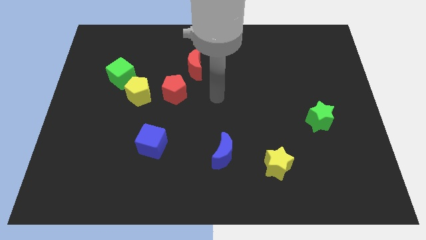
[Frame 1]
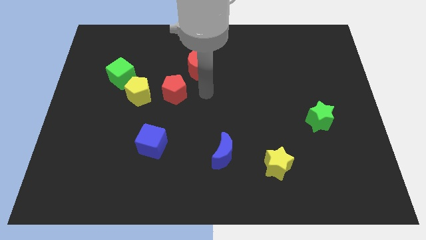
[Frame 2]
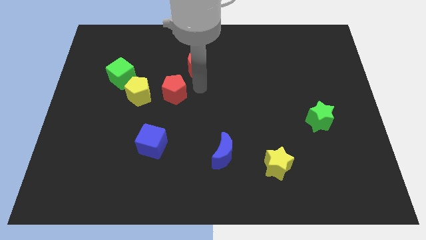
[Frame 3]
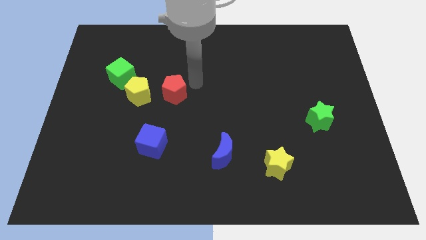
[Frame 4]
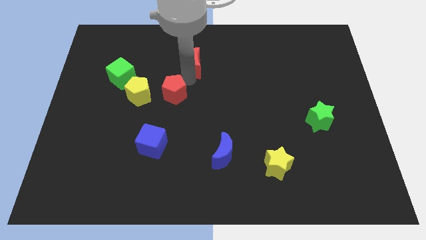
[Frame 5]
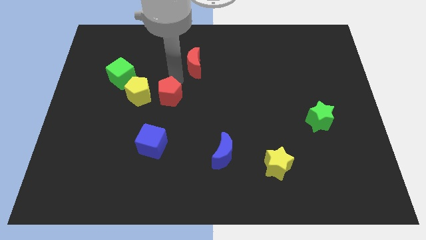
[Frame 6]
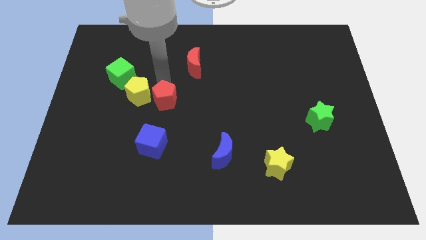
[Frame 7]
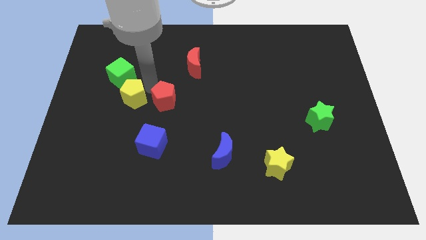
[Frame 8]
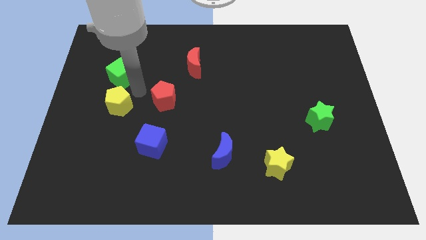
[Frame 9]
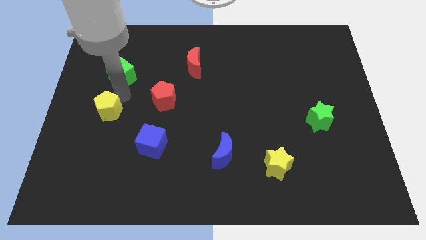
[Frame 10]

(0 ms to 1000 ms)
pull the green cube apart from the yellow pentagon

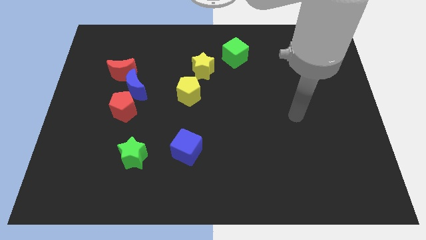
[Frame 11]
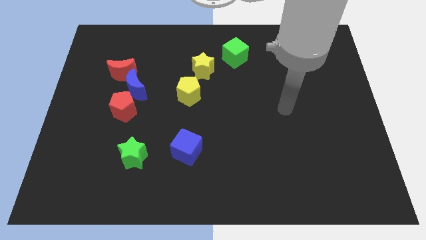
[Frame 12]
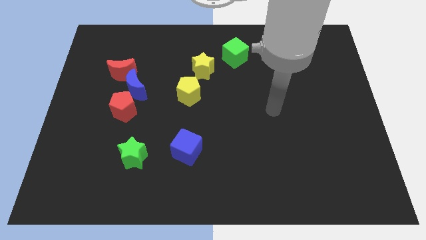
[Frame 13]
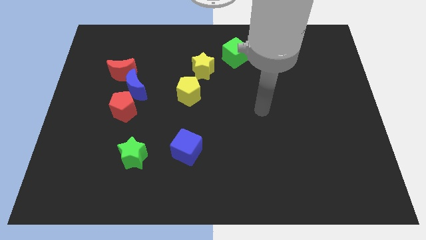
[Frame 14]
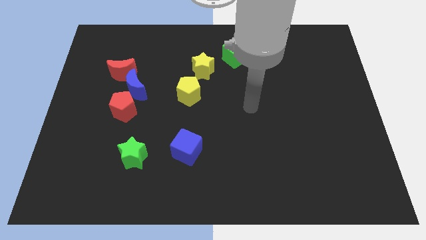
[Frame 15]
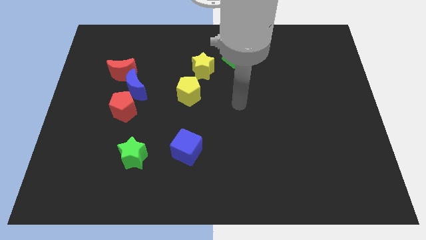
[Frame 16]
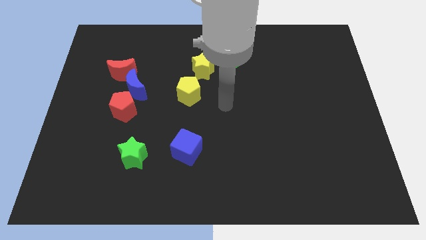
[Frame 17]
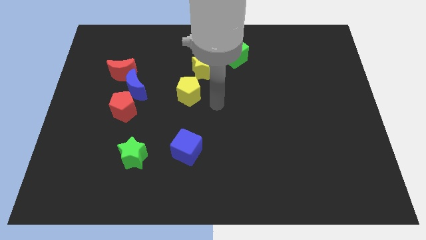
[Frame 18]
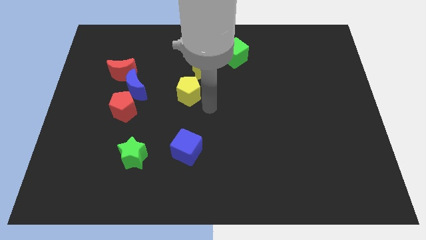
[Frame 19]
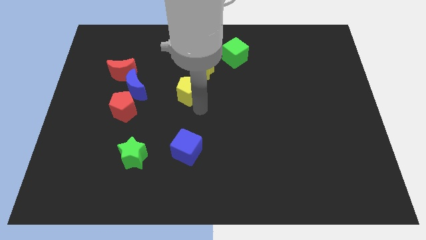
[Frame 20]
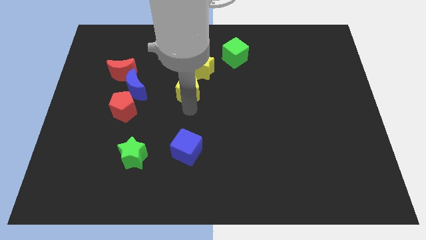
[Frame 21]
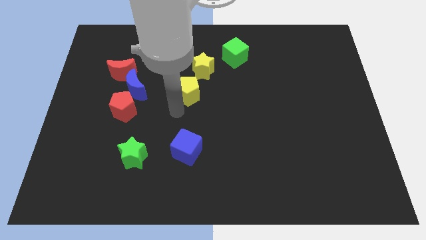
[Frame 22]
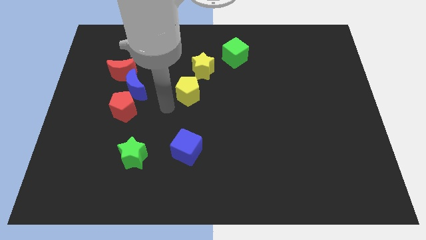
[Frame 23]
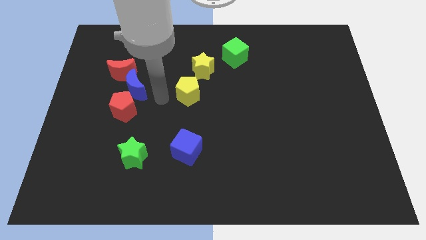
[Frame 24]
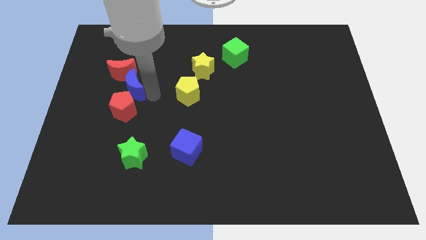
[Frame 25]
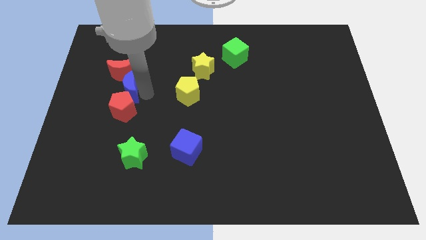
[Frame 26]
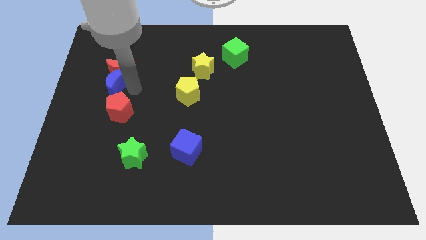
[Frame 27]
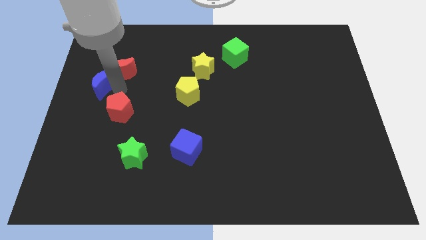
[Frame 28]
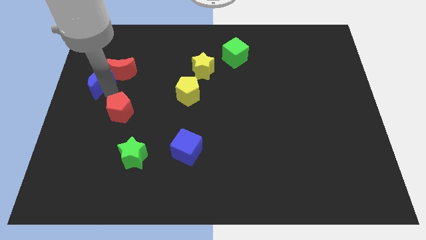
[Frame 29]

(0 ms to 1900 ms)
pull the red pentagon apart from the blue moon

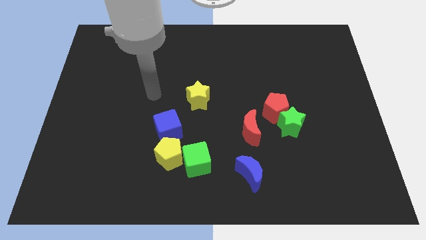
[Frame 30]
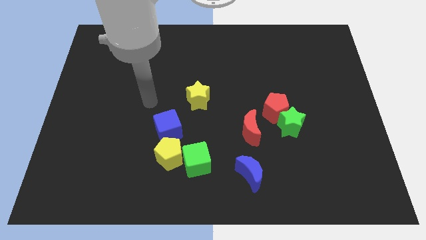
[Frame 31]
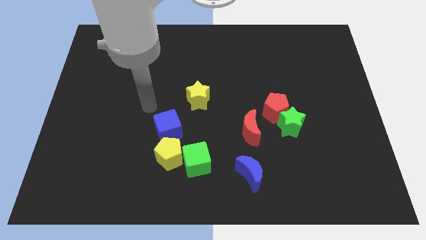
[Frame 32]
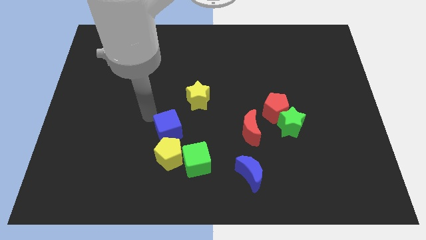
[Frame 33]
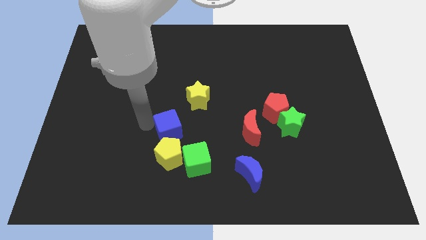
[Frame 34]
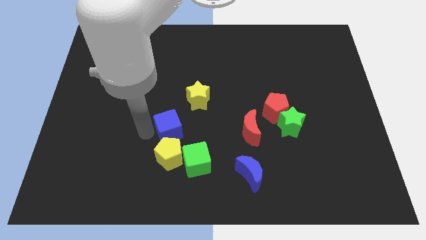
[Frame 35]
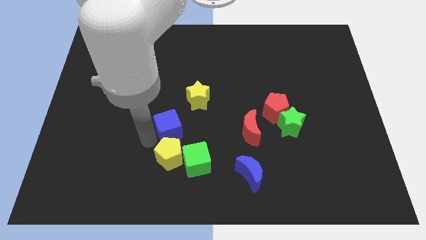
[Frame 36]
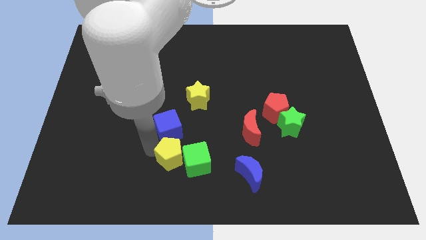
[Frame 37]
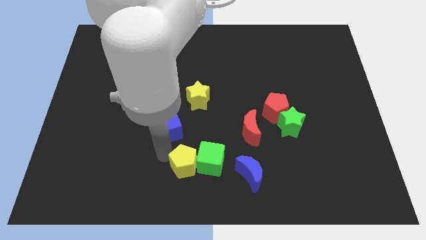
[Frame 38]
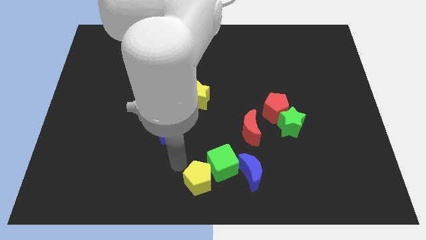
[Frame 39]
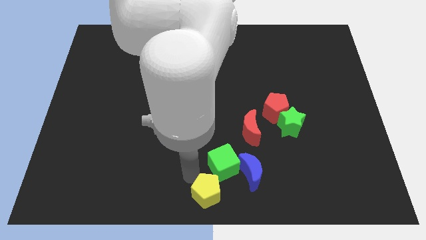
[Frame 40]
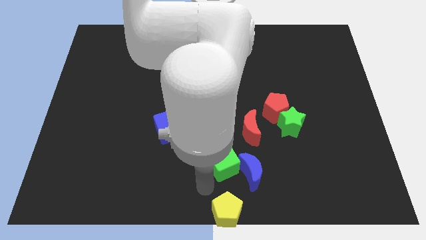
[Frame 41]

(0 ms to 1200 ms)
separate the green cube from the yellow pentagon

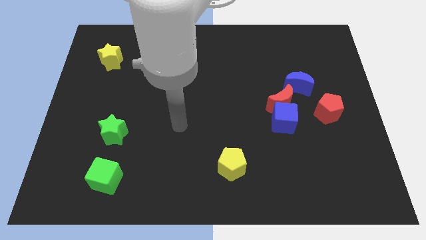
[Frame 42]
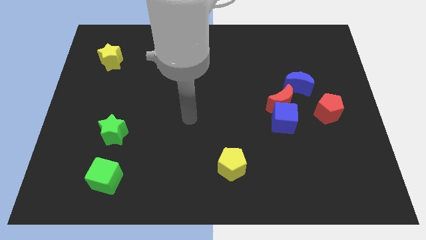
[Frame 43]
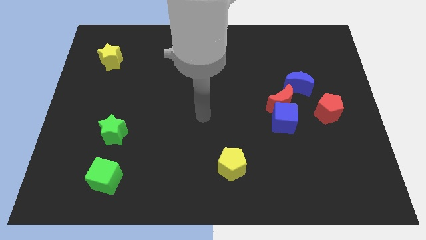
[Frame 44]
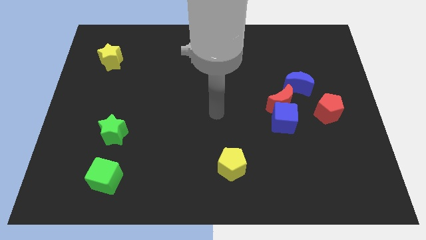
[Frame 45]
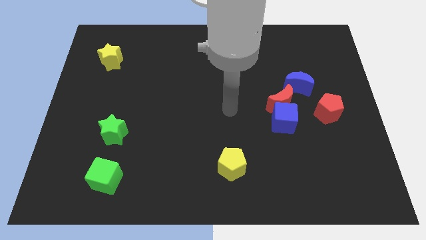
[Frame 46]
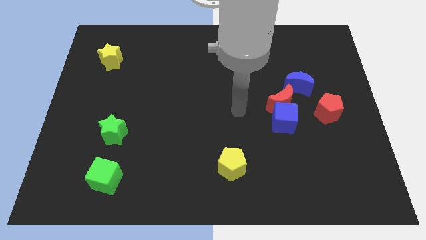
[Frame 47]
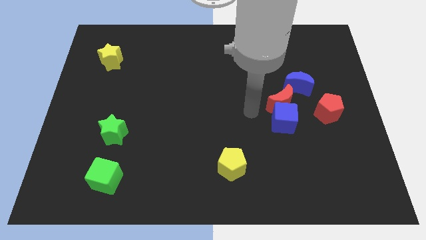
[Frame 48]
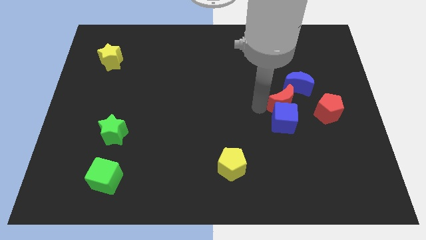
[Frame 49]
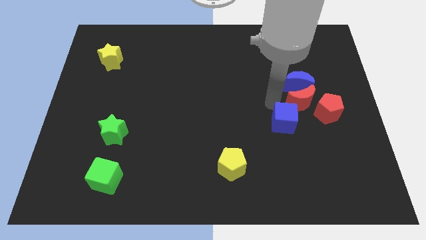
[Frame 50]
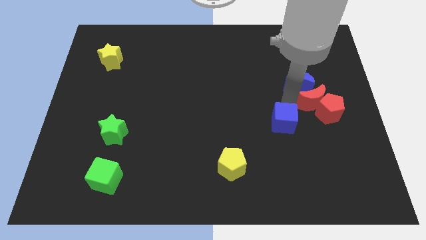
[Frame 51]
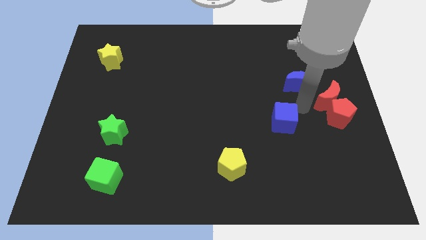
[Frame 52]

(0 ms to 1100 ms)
pull the blue cube apart from the red moon

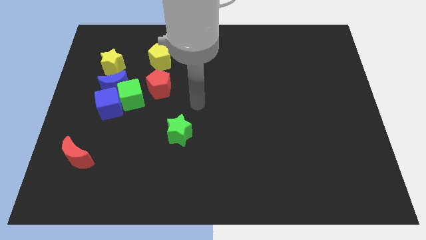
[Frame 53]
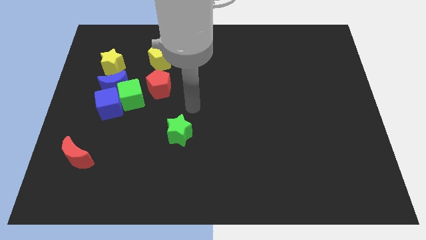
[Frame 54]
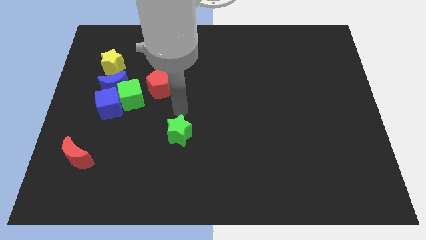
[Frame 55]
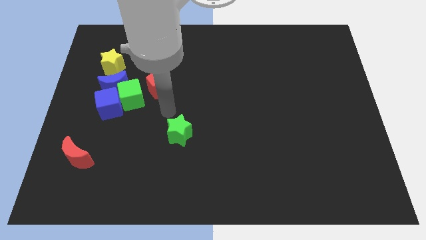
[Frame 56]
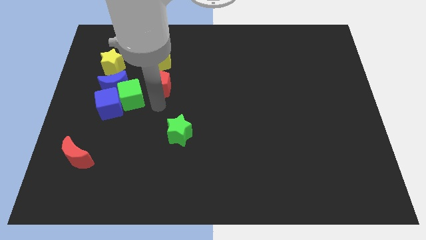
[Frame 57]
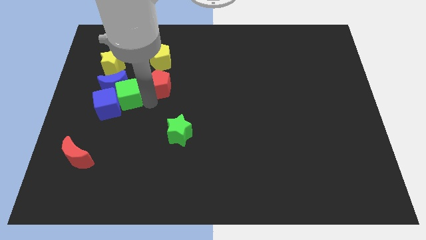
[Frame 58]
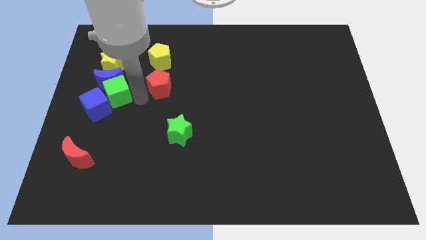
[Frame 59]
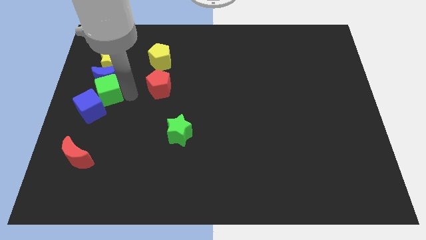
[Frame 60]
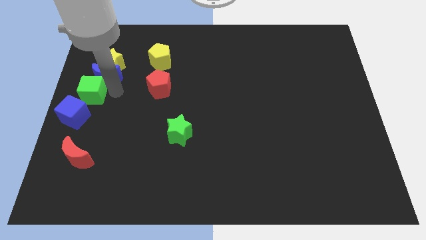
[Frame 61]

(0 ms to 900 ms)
separate the blue cube from the green cube and blue moon

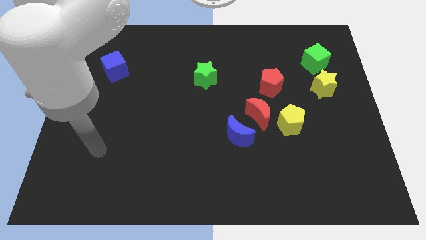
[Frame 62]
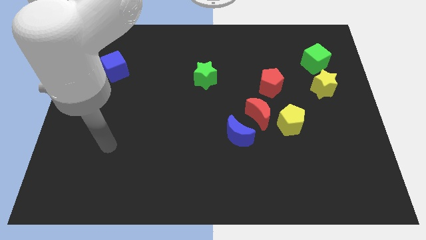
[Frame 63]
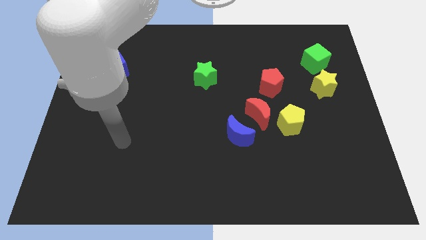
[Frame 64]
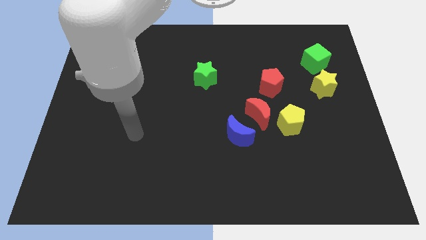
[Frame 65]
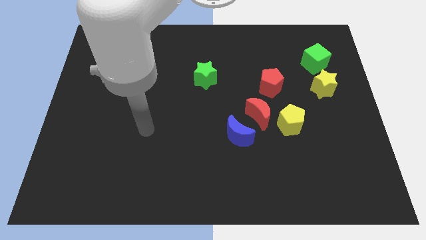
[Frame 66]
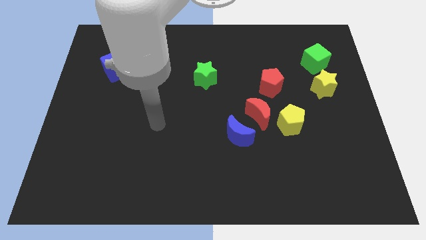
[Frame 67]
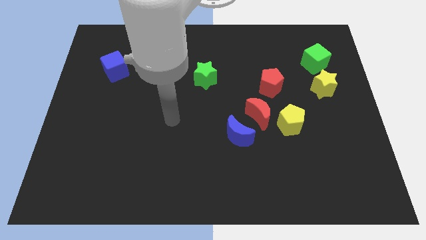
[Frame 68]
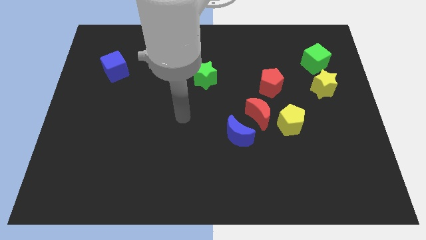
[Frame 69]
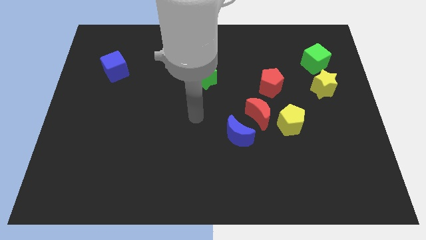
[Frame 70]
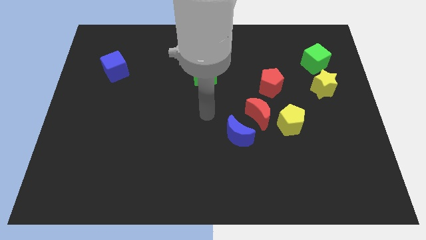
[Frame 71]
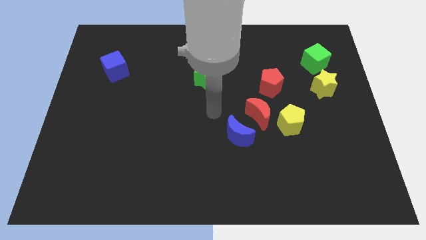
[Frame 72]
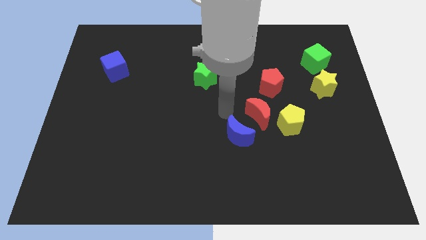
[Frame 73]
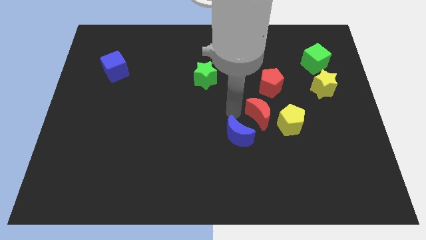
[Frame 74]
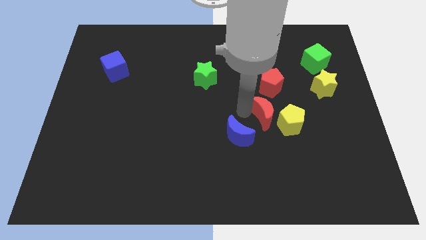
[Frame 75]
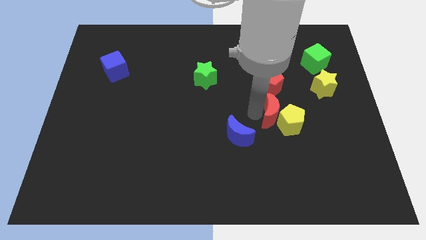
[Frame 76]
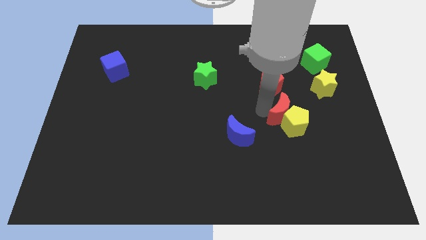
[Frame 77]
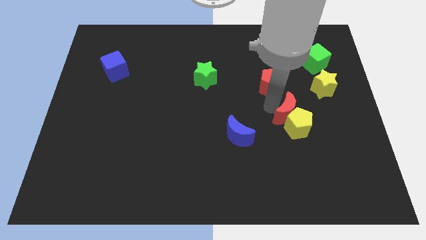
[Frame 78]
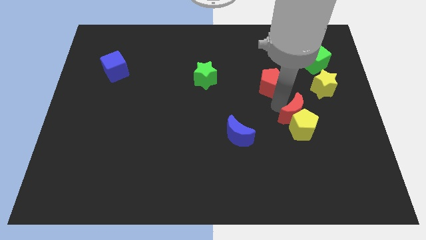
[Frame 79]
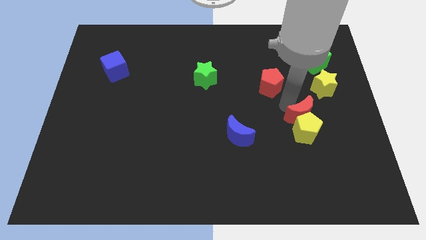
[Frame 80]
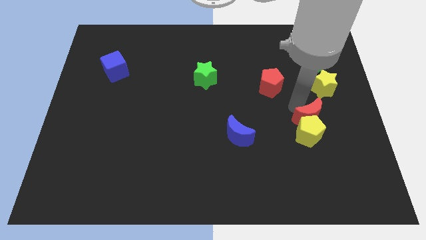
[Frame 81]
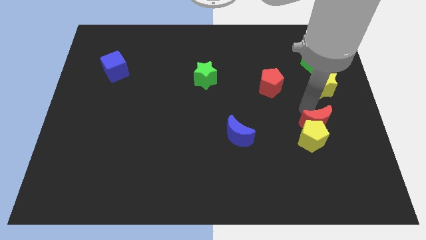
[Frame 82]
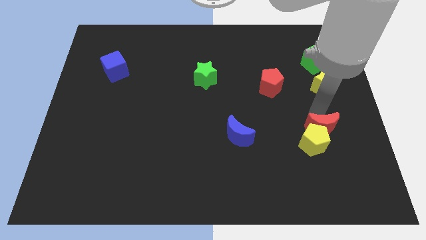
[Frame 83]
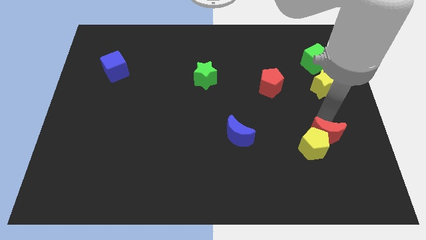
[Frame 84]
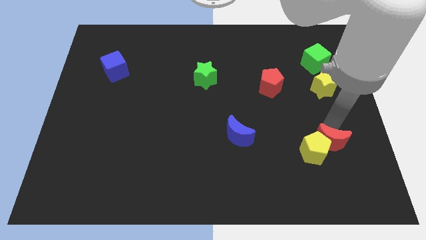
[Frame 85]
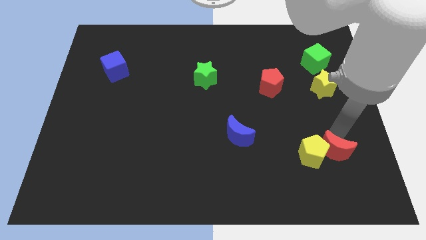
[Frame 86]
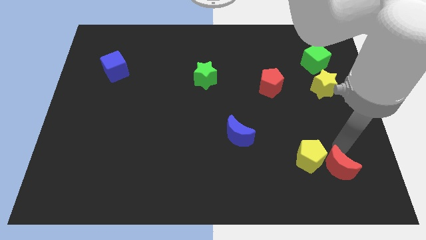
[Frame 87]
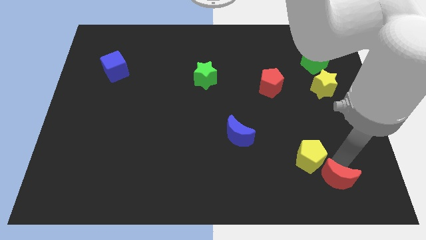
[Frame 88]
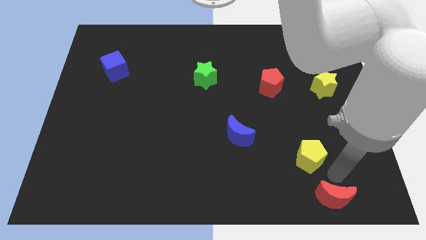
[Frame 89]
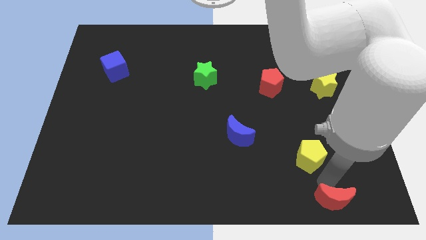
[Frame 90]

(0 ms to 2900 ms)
separate the yellow pentagon from the red moon

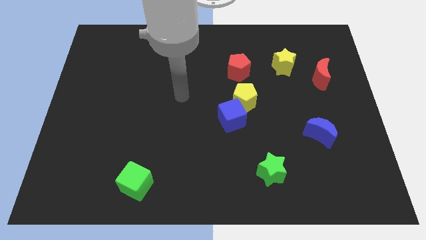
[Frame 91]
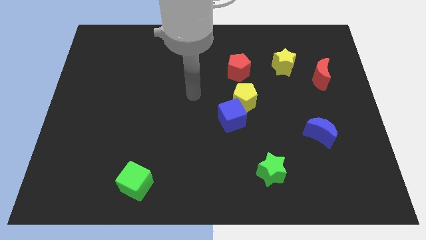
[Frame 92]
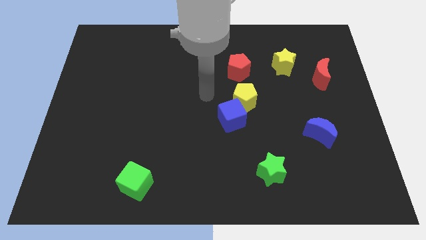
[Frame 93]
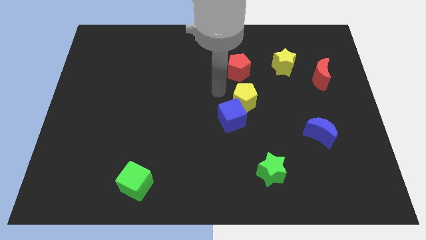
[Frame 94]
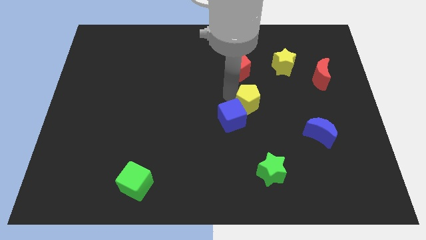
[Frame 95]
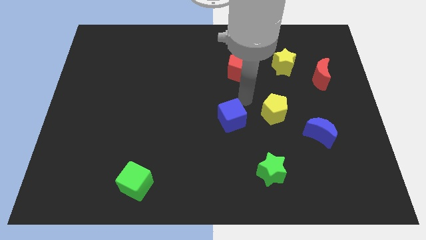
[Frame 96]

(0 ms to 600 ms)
separate the blue cube from the yellow pentagon
